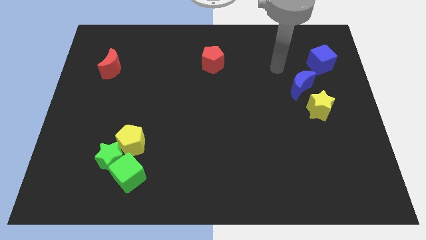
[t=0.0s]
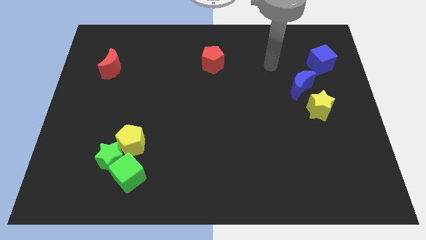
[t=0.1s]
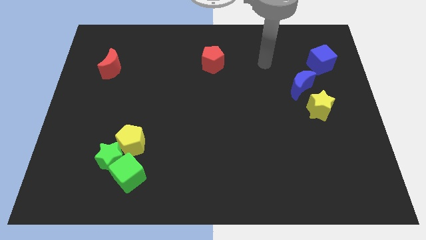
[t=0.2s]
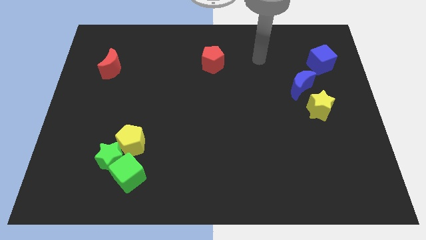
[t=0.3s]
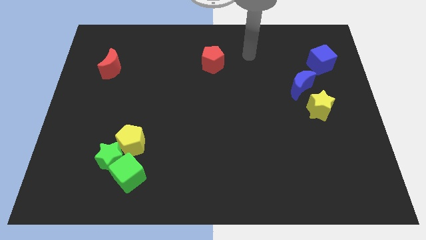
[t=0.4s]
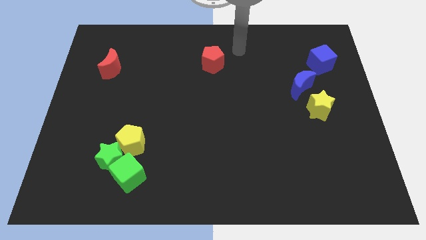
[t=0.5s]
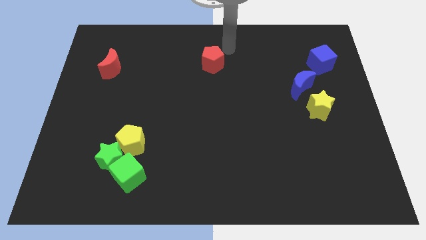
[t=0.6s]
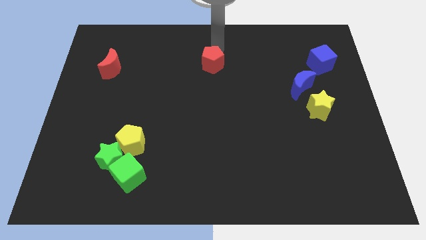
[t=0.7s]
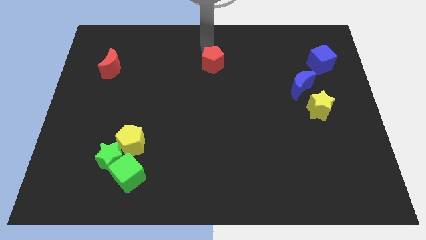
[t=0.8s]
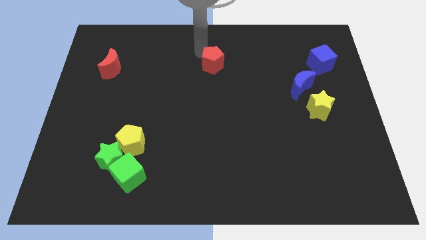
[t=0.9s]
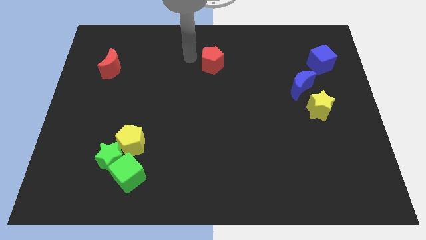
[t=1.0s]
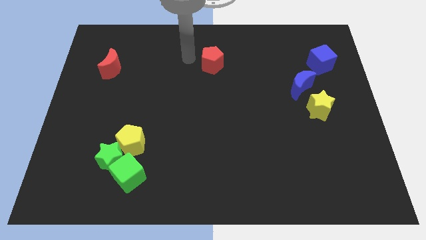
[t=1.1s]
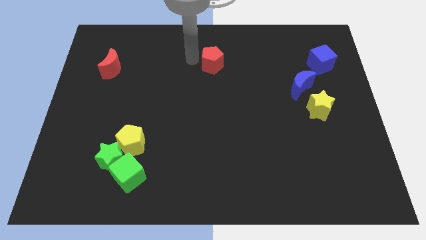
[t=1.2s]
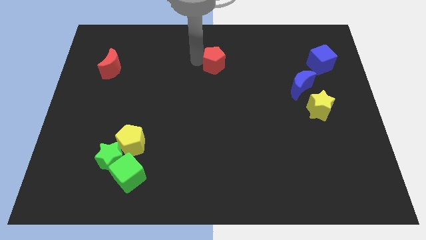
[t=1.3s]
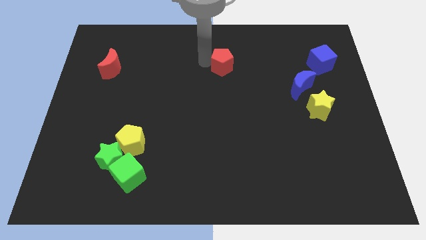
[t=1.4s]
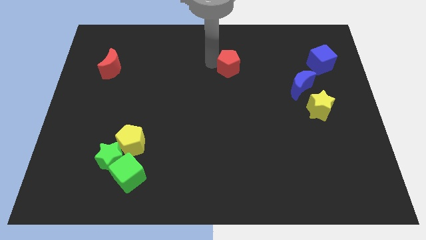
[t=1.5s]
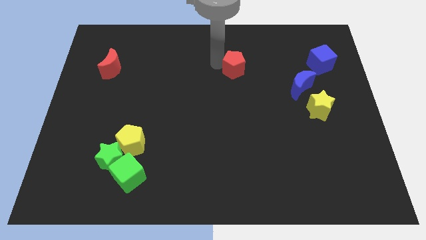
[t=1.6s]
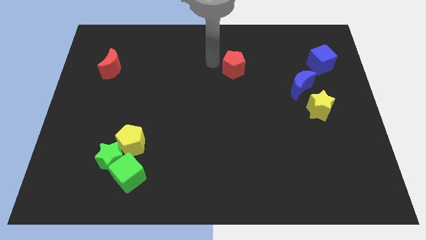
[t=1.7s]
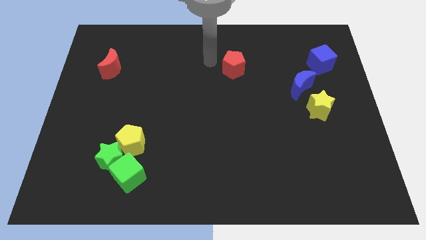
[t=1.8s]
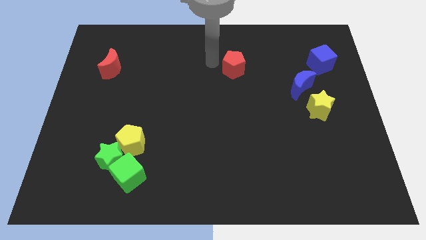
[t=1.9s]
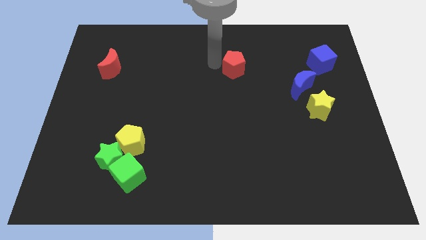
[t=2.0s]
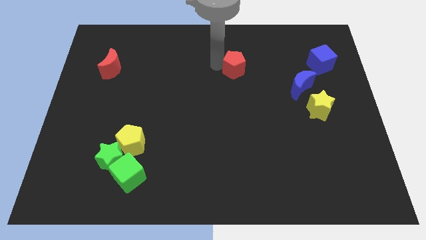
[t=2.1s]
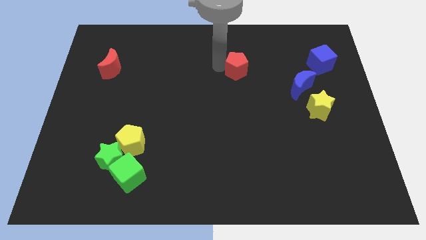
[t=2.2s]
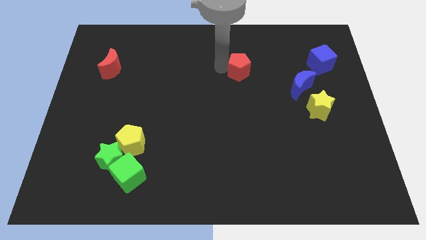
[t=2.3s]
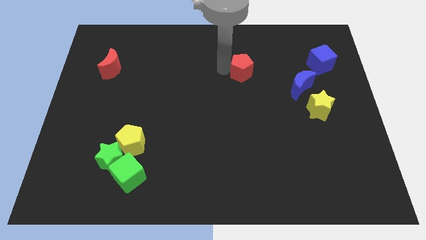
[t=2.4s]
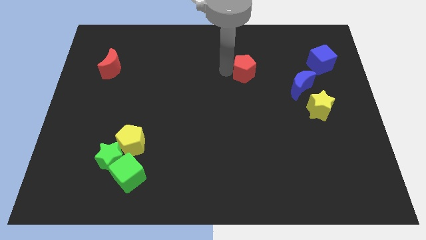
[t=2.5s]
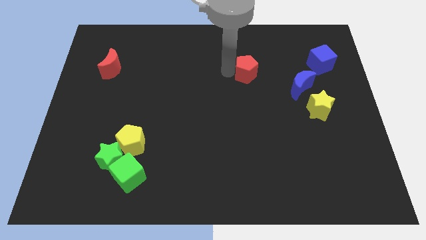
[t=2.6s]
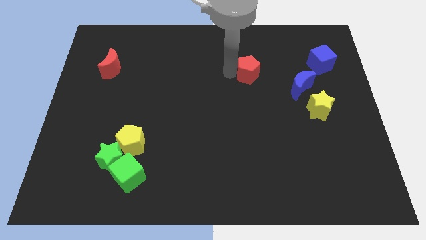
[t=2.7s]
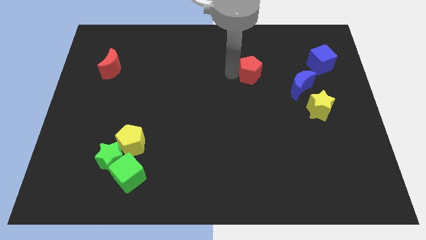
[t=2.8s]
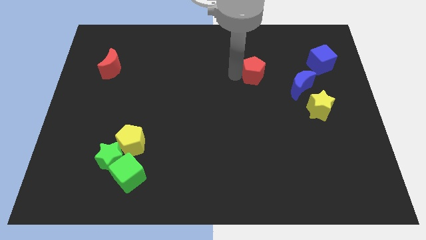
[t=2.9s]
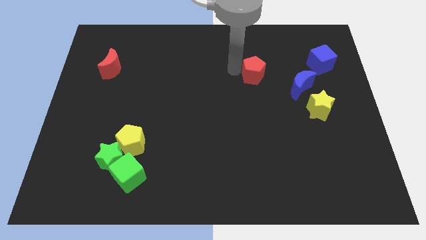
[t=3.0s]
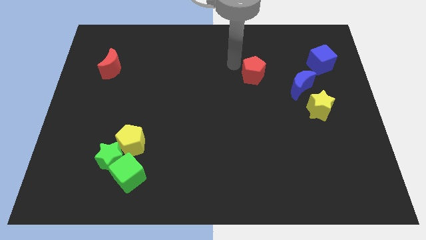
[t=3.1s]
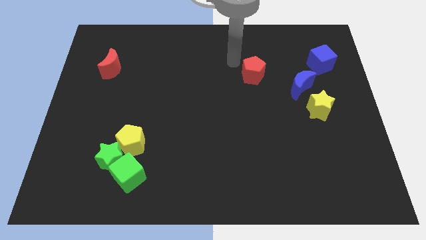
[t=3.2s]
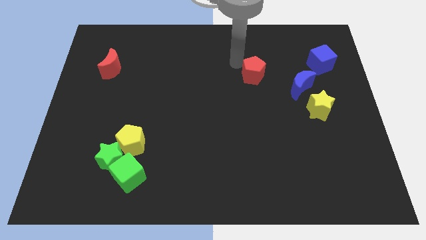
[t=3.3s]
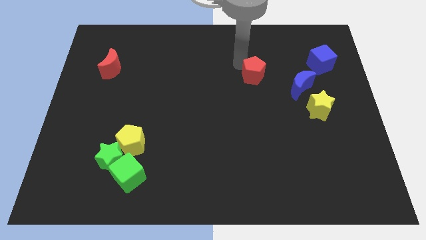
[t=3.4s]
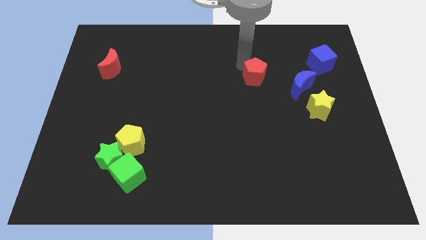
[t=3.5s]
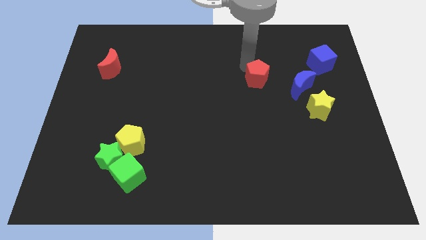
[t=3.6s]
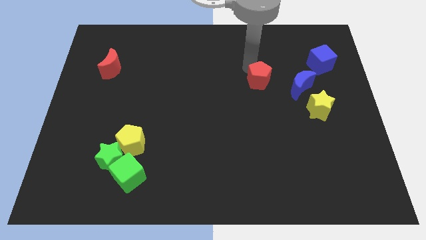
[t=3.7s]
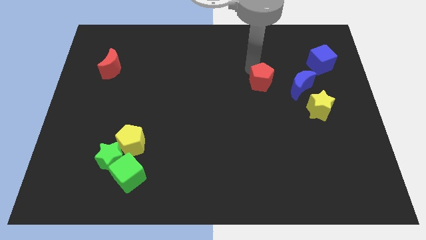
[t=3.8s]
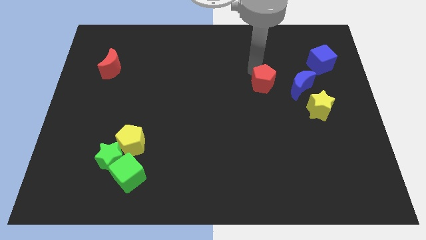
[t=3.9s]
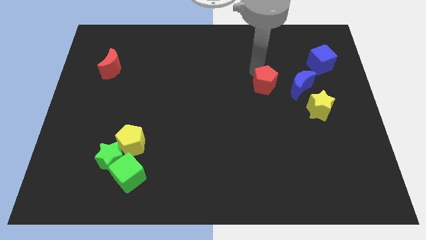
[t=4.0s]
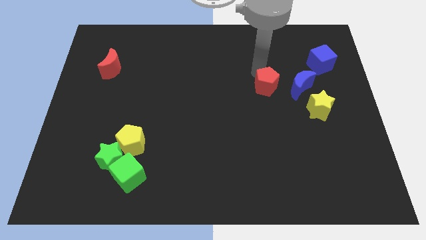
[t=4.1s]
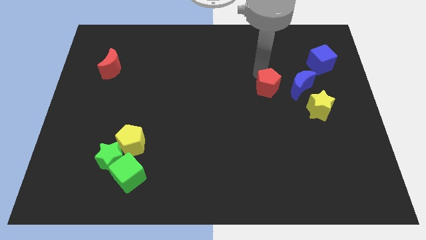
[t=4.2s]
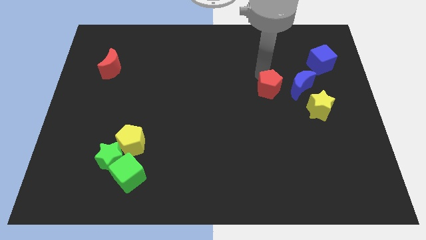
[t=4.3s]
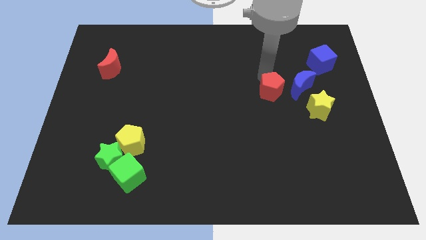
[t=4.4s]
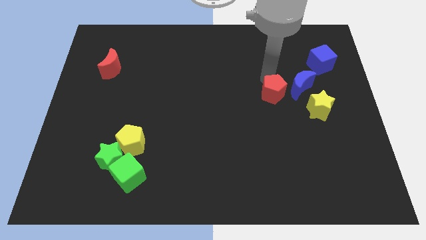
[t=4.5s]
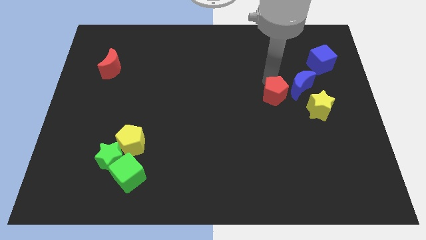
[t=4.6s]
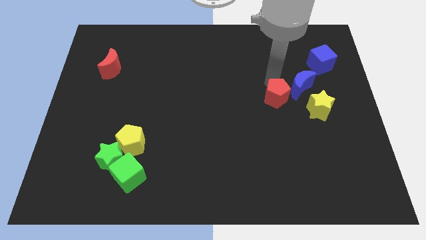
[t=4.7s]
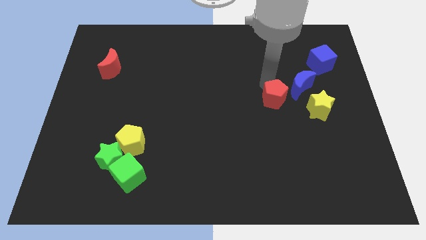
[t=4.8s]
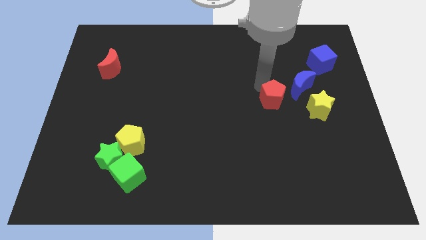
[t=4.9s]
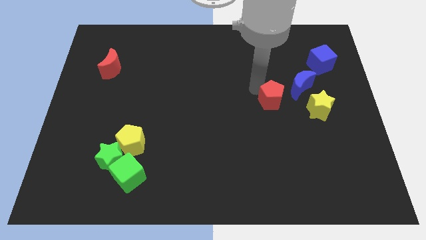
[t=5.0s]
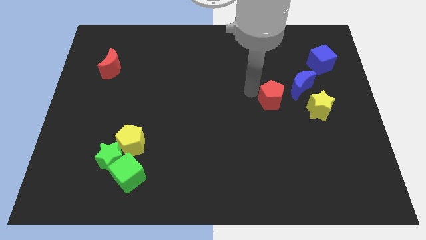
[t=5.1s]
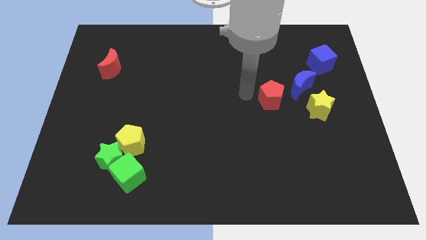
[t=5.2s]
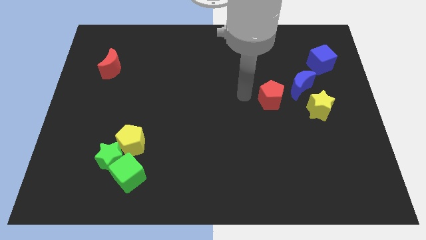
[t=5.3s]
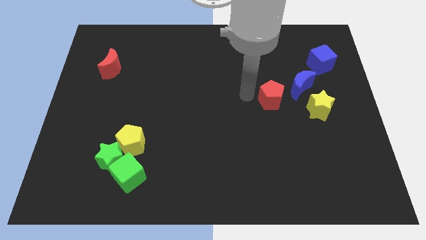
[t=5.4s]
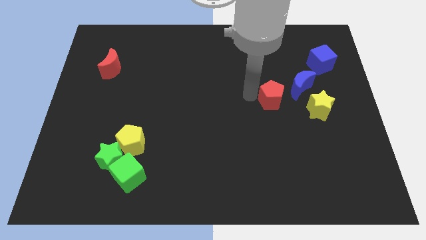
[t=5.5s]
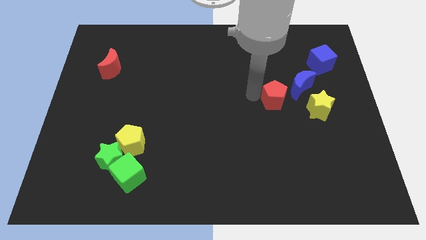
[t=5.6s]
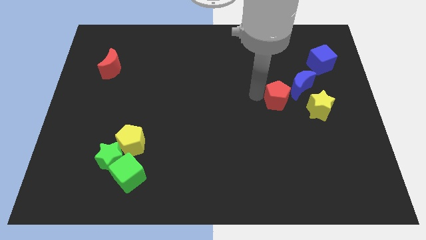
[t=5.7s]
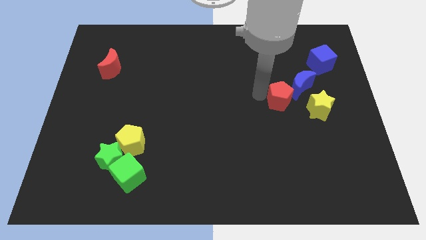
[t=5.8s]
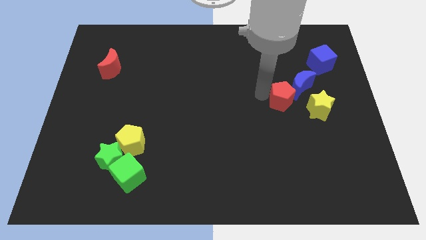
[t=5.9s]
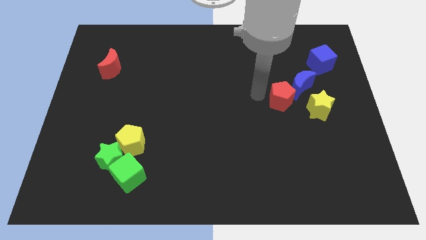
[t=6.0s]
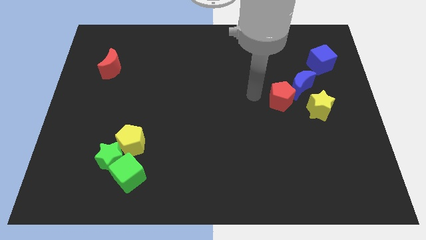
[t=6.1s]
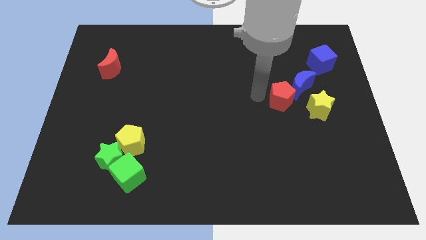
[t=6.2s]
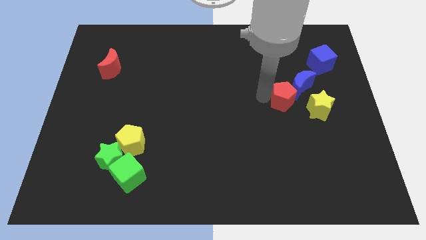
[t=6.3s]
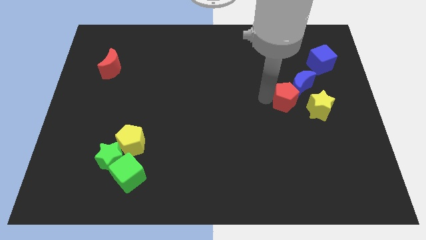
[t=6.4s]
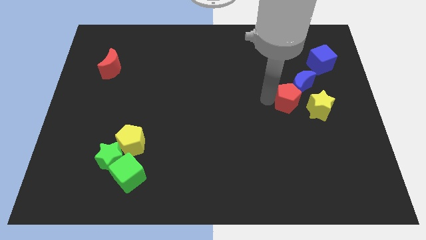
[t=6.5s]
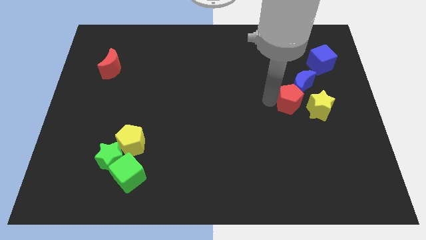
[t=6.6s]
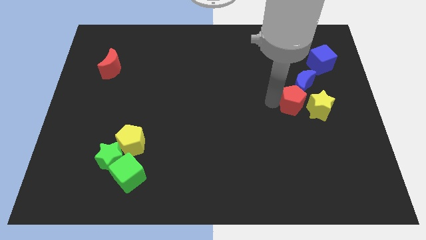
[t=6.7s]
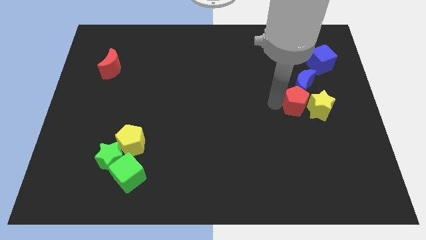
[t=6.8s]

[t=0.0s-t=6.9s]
push the red pentagon next to the yellow star
